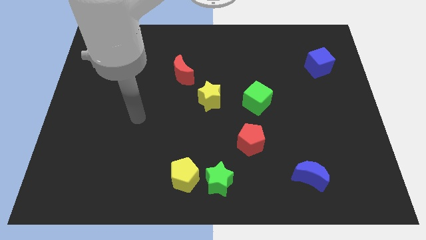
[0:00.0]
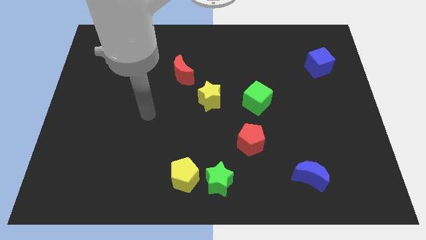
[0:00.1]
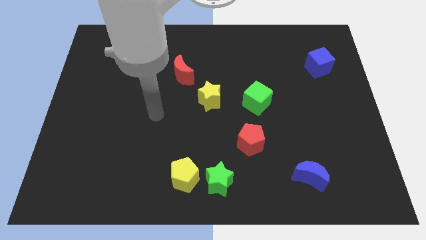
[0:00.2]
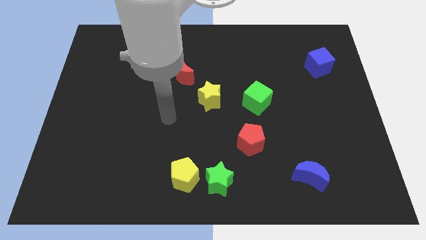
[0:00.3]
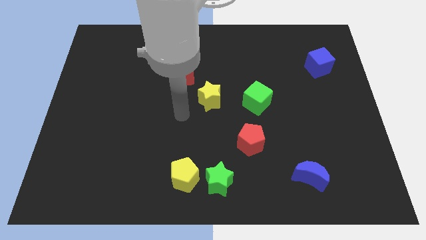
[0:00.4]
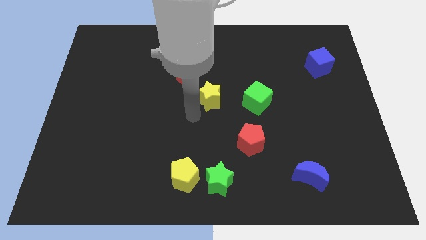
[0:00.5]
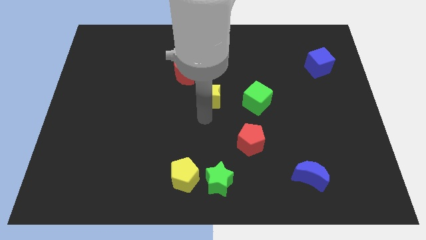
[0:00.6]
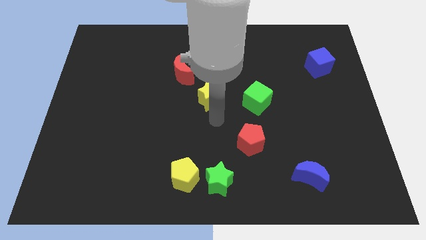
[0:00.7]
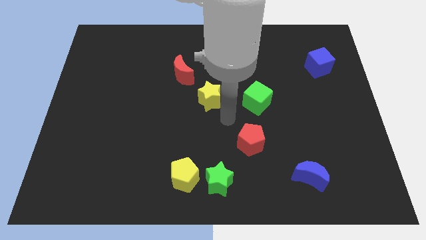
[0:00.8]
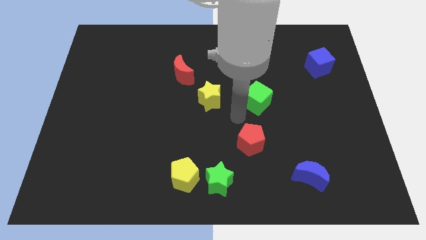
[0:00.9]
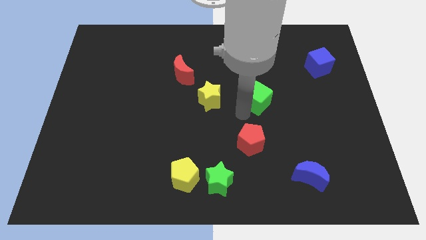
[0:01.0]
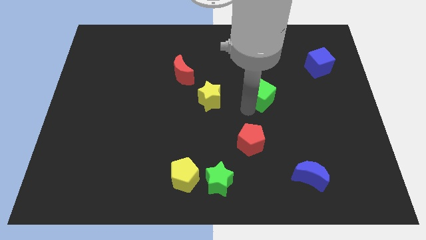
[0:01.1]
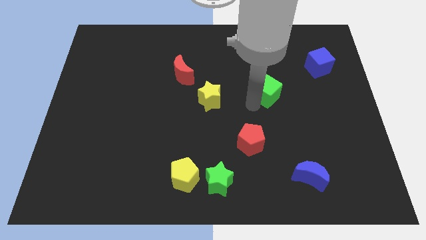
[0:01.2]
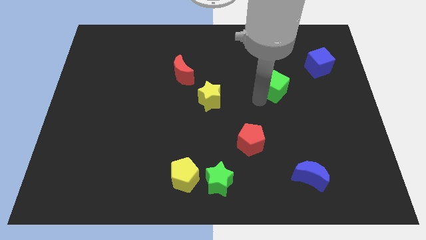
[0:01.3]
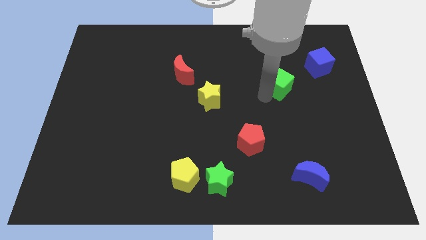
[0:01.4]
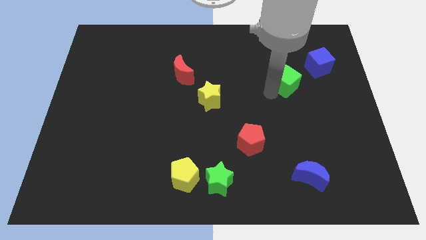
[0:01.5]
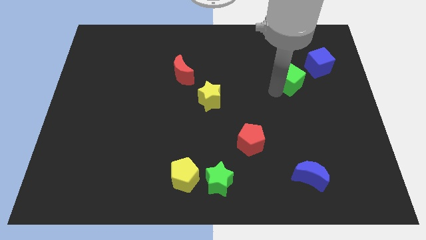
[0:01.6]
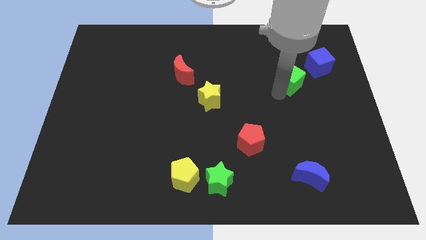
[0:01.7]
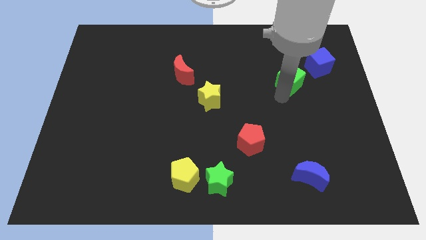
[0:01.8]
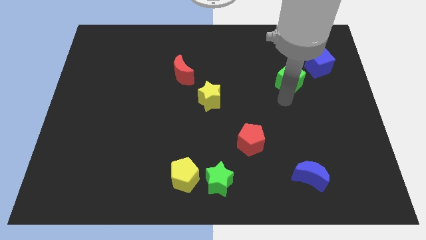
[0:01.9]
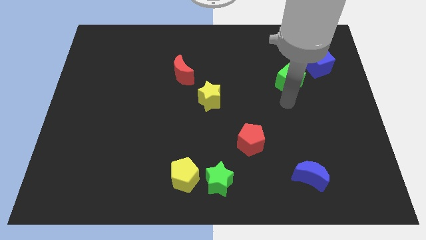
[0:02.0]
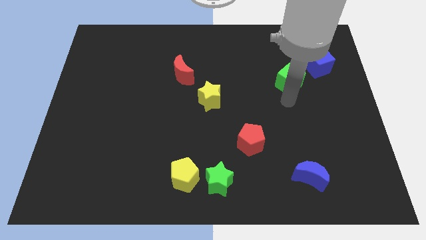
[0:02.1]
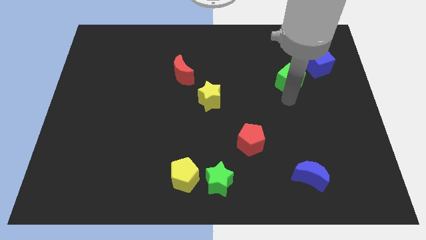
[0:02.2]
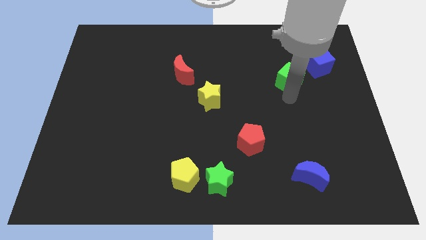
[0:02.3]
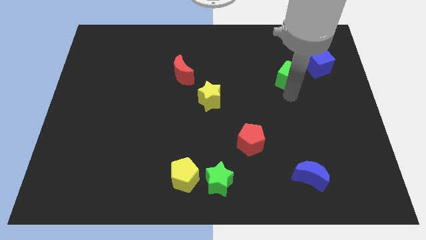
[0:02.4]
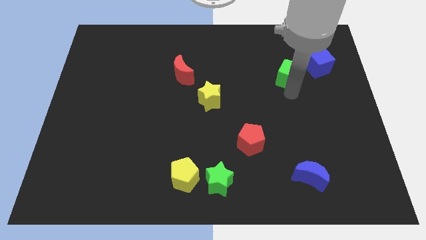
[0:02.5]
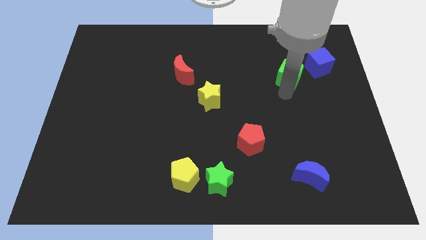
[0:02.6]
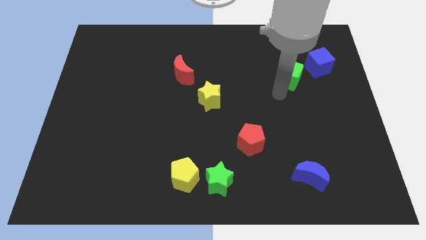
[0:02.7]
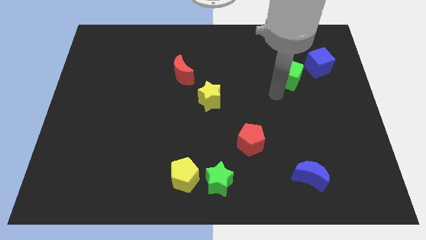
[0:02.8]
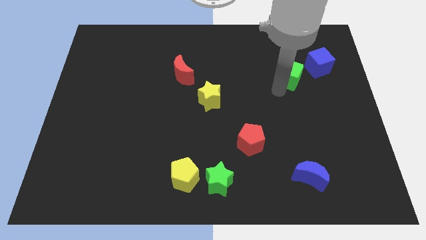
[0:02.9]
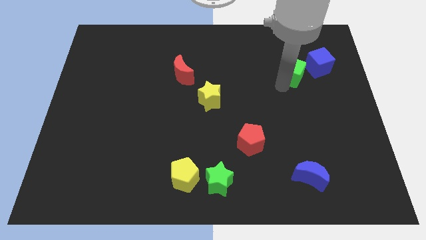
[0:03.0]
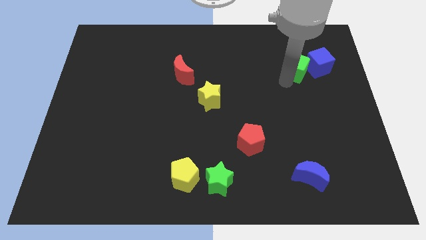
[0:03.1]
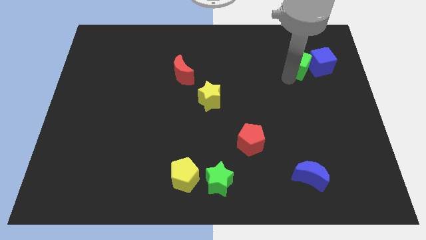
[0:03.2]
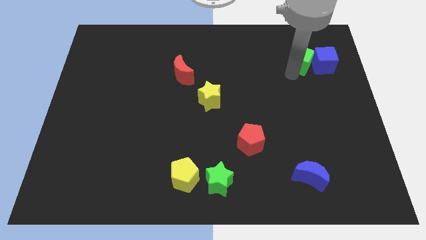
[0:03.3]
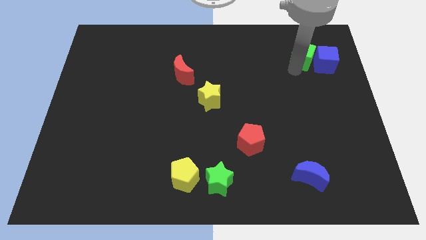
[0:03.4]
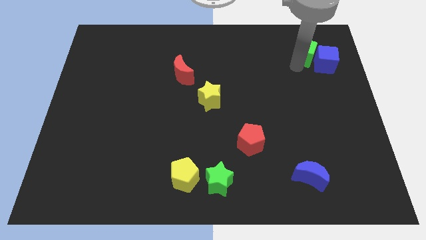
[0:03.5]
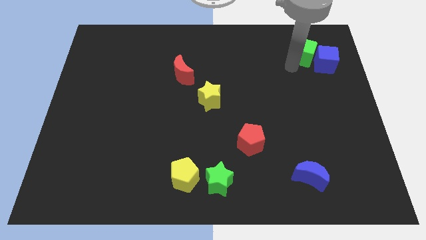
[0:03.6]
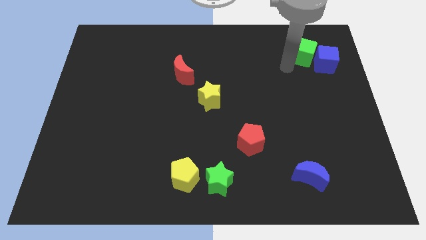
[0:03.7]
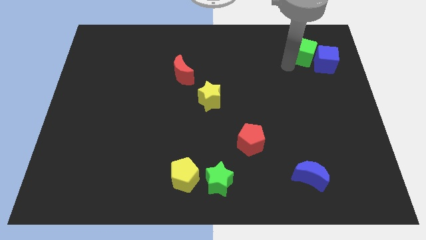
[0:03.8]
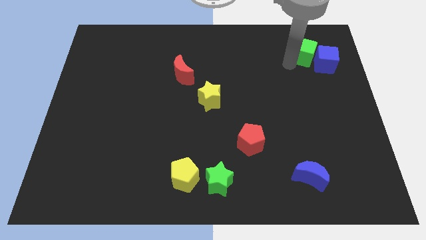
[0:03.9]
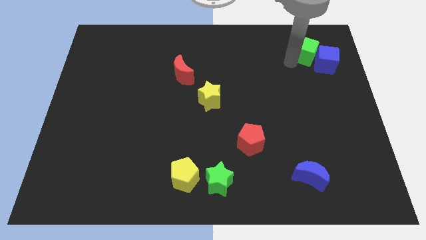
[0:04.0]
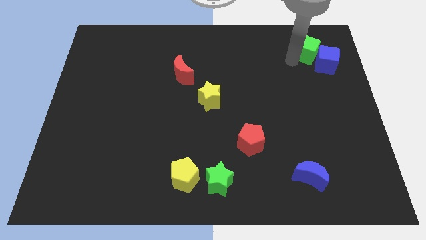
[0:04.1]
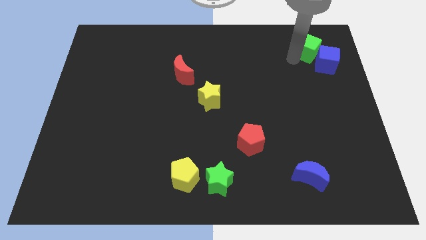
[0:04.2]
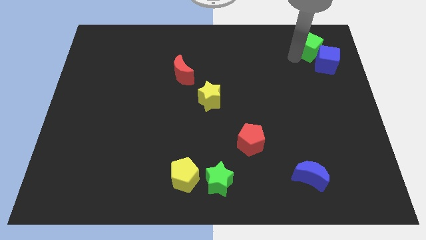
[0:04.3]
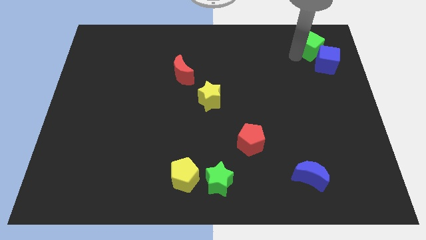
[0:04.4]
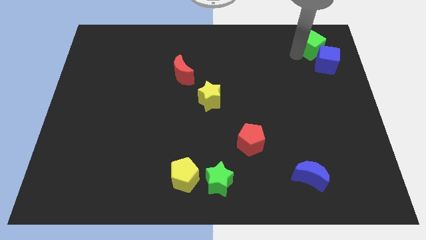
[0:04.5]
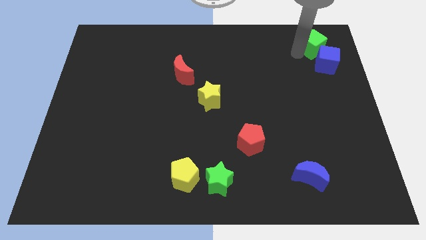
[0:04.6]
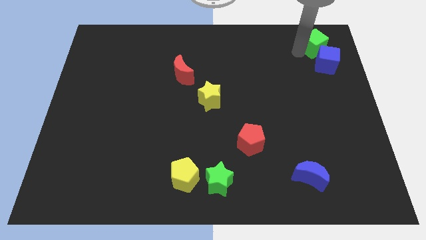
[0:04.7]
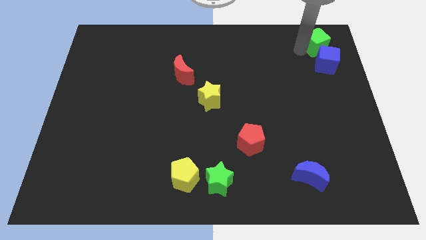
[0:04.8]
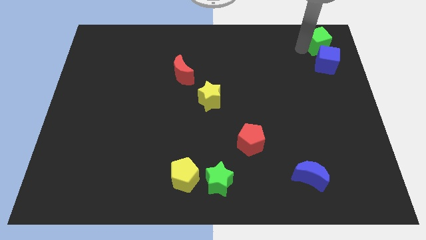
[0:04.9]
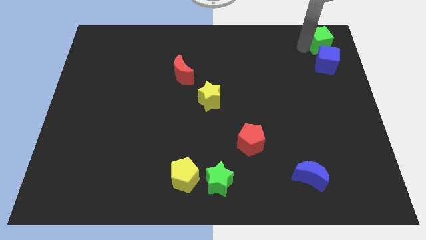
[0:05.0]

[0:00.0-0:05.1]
slide the green cube to the top right
